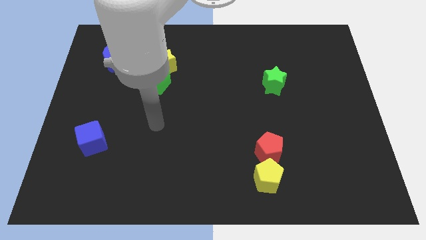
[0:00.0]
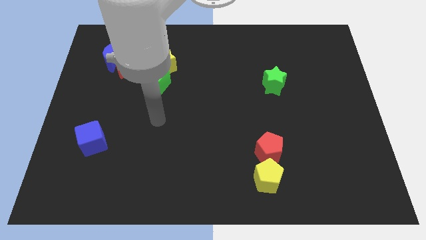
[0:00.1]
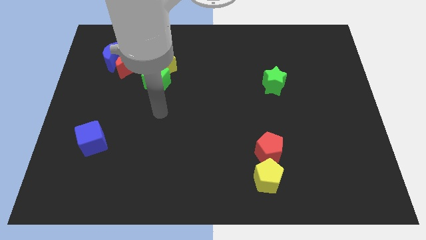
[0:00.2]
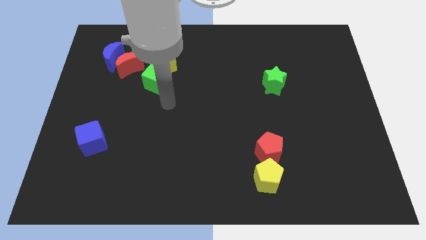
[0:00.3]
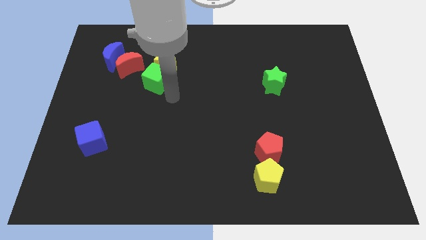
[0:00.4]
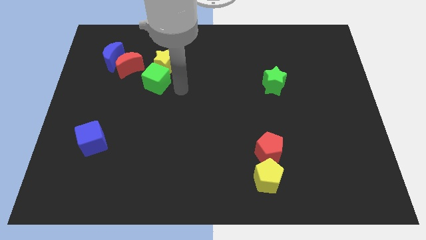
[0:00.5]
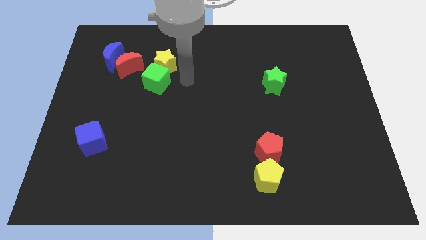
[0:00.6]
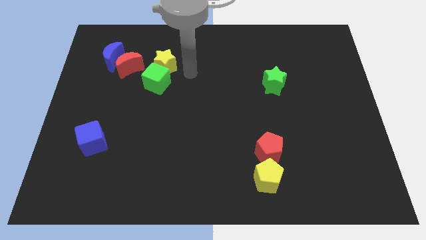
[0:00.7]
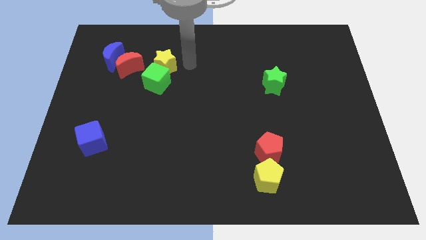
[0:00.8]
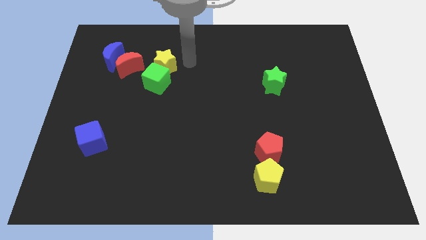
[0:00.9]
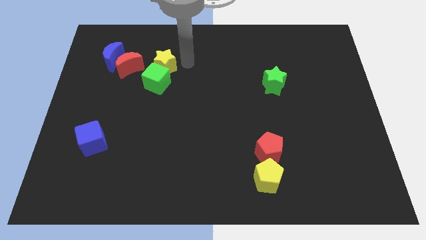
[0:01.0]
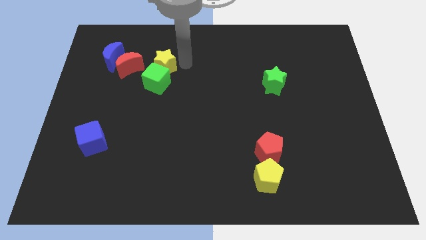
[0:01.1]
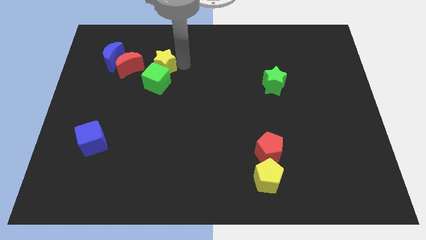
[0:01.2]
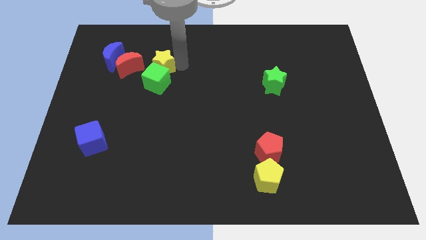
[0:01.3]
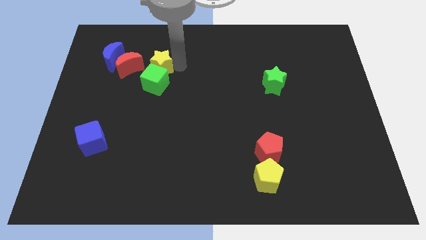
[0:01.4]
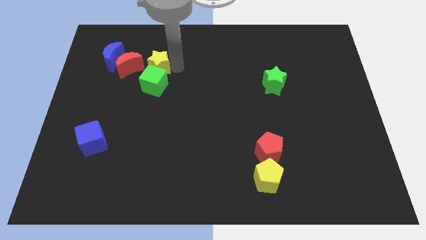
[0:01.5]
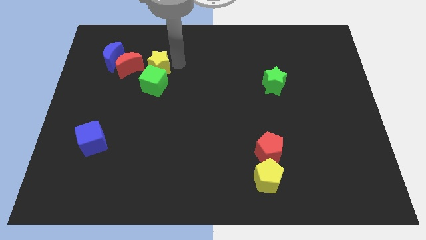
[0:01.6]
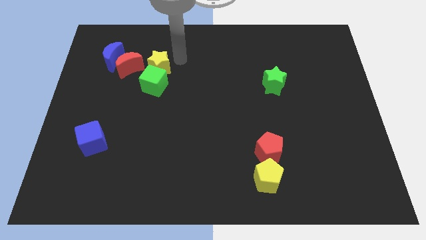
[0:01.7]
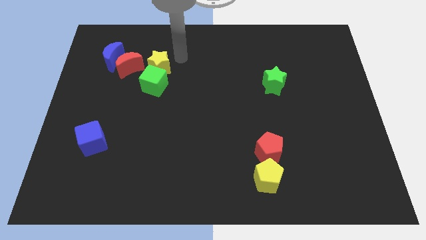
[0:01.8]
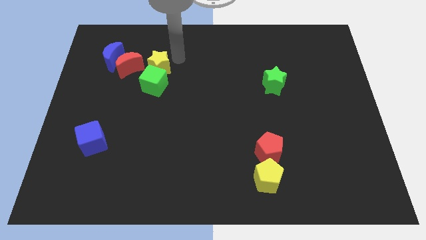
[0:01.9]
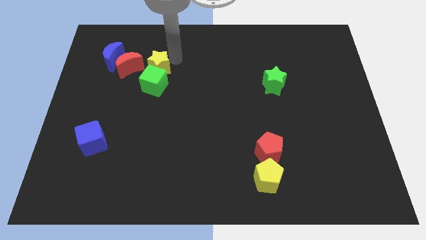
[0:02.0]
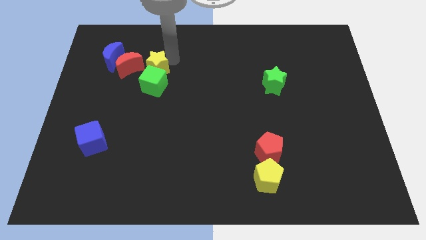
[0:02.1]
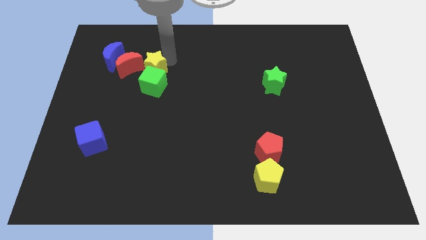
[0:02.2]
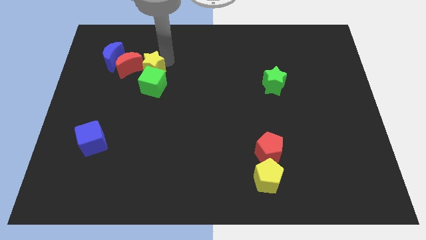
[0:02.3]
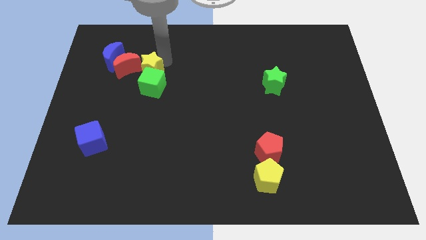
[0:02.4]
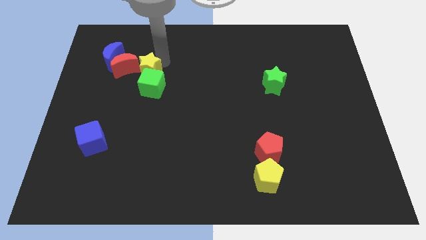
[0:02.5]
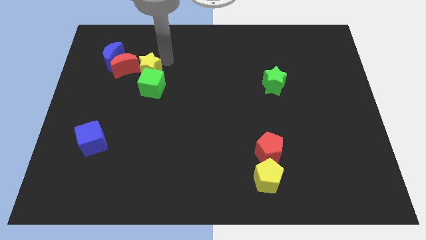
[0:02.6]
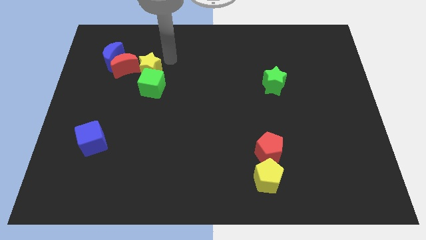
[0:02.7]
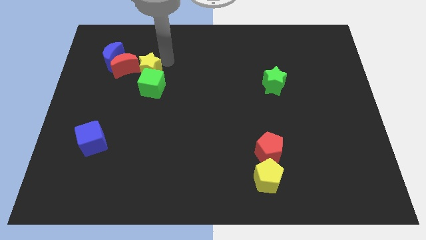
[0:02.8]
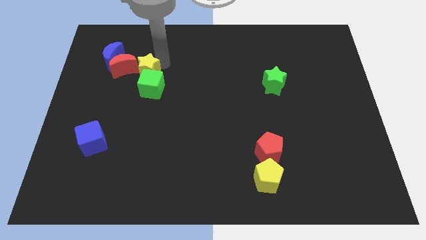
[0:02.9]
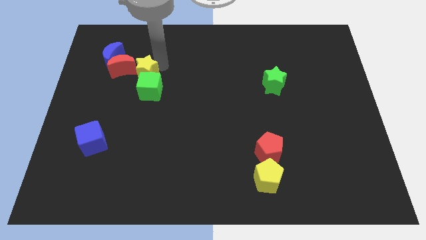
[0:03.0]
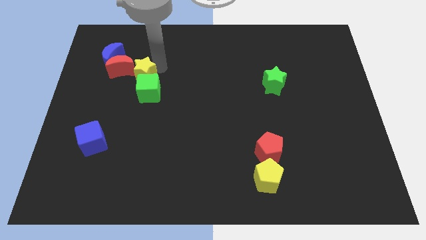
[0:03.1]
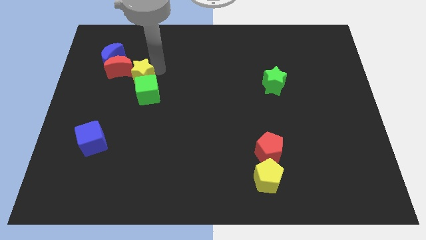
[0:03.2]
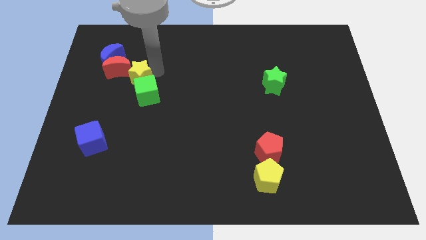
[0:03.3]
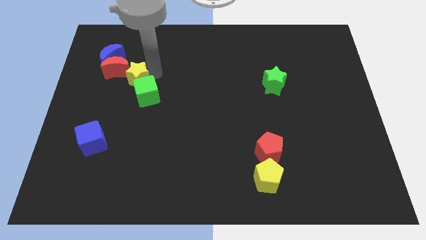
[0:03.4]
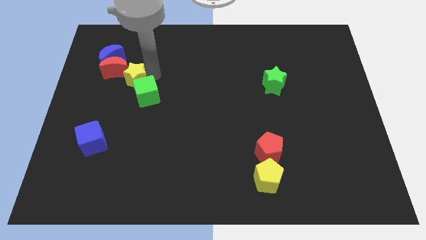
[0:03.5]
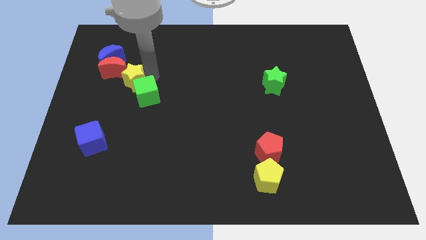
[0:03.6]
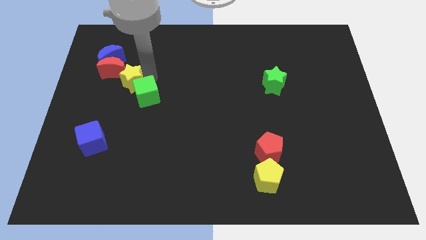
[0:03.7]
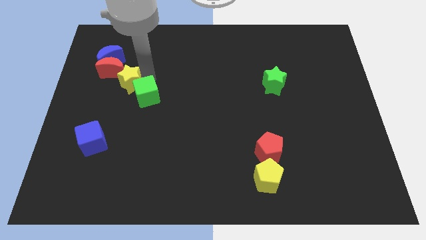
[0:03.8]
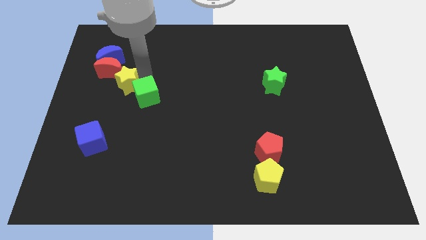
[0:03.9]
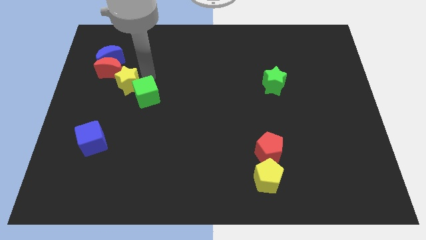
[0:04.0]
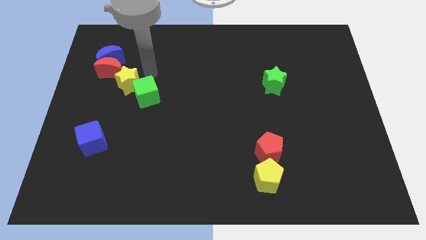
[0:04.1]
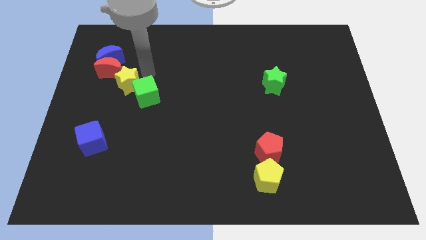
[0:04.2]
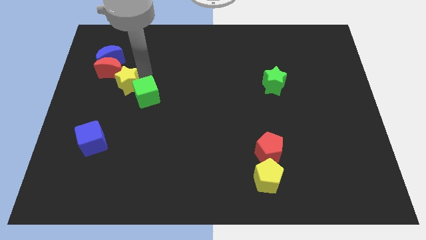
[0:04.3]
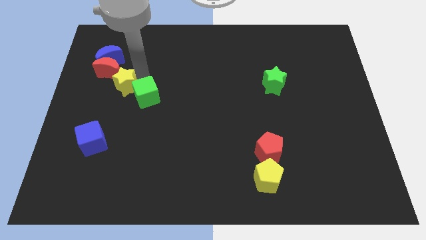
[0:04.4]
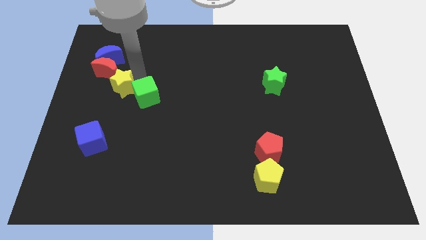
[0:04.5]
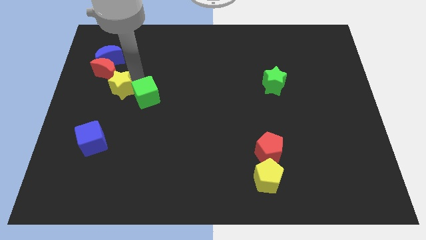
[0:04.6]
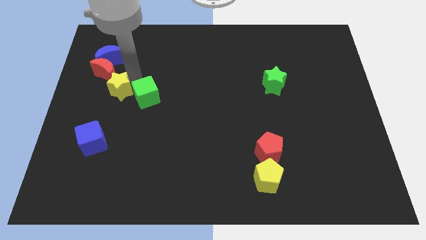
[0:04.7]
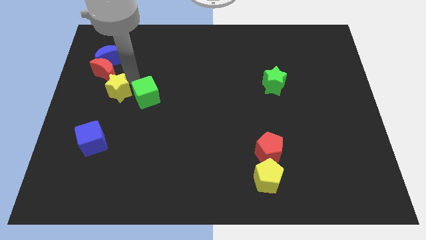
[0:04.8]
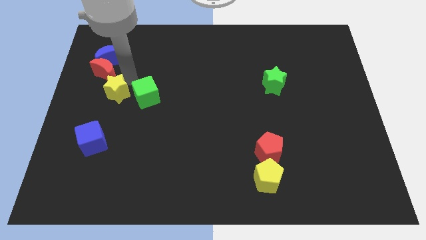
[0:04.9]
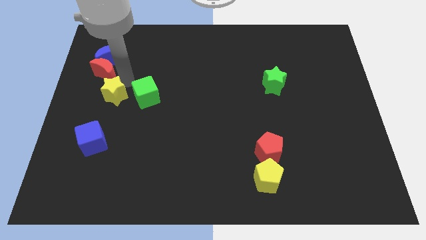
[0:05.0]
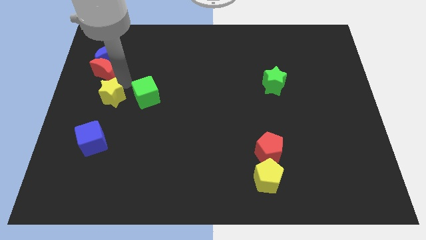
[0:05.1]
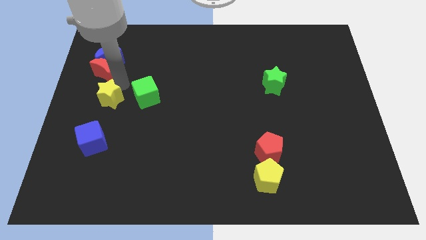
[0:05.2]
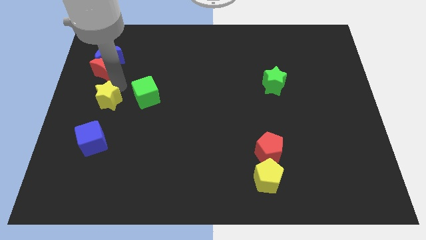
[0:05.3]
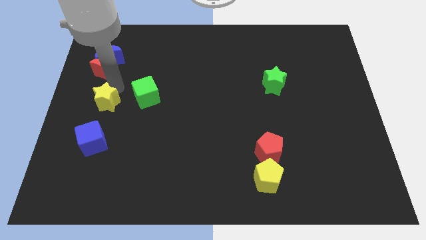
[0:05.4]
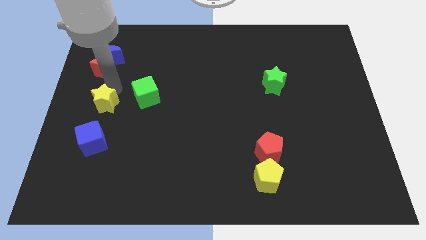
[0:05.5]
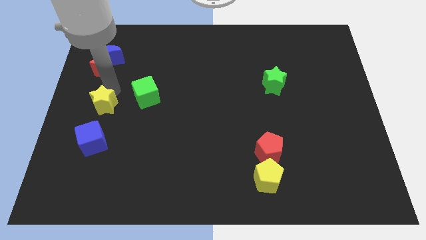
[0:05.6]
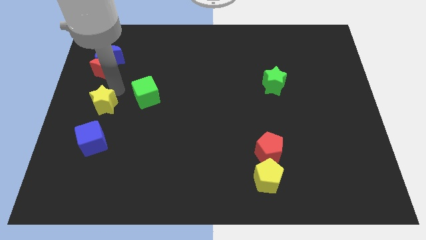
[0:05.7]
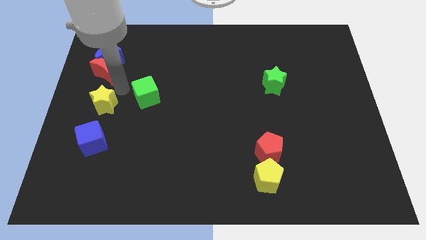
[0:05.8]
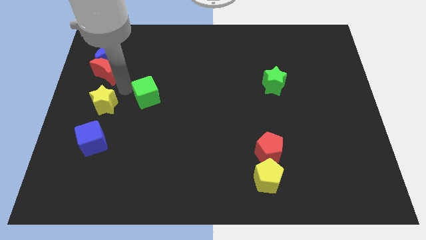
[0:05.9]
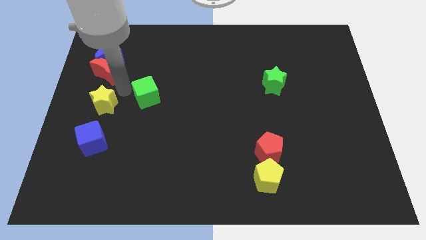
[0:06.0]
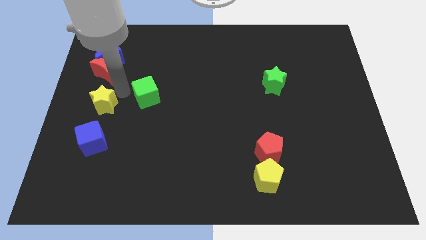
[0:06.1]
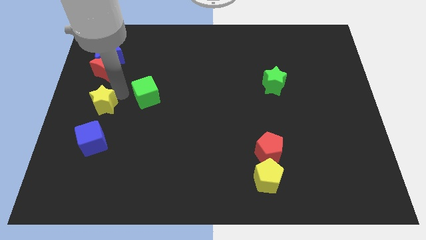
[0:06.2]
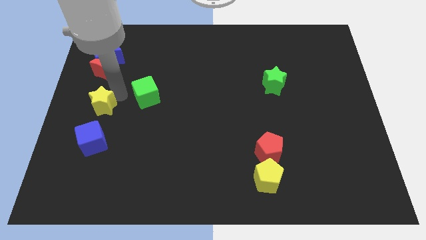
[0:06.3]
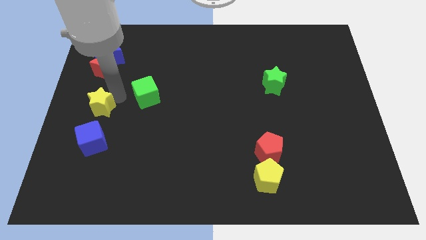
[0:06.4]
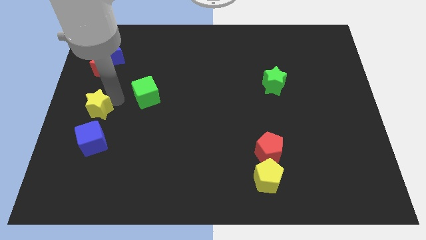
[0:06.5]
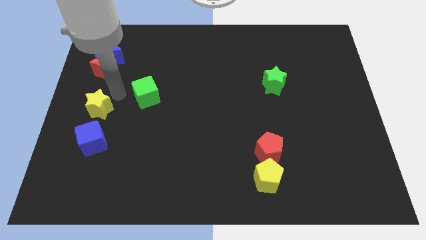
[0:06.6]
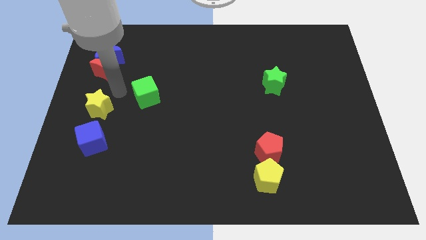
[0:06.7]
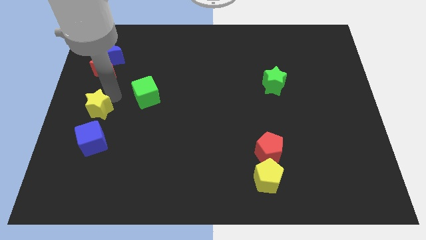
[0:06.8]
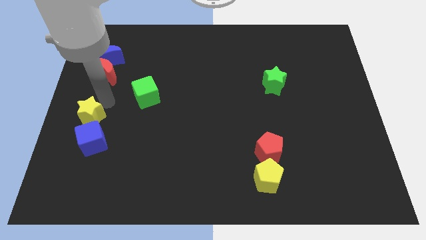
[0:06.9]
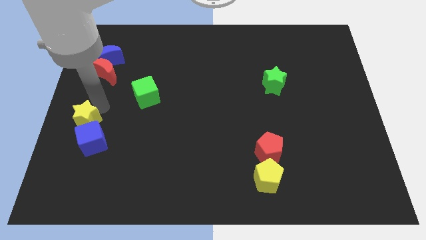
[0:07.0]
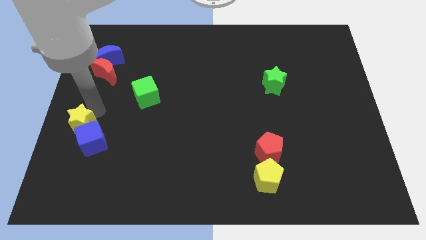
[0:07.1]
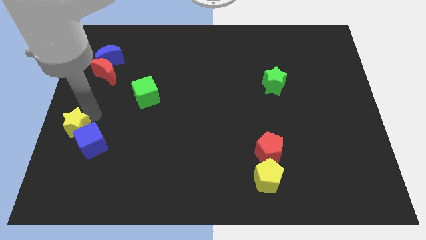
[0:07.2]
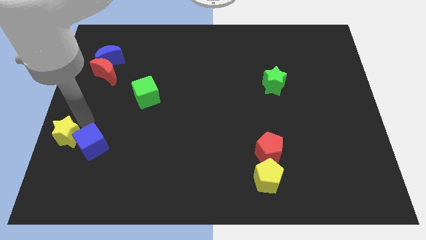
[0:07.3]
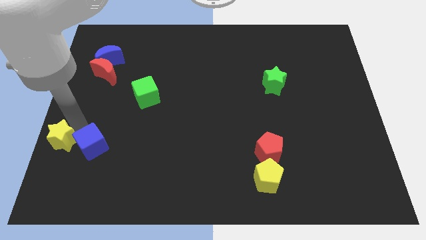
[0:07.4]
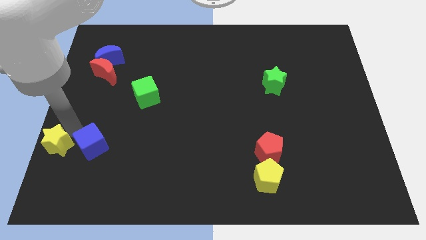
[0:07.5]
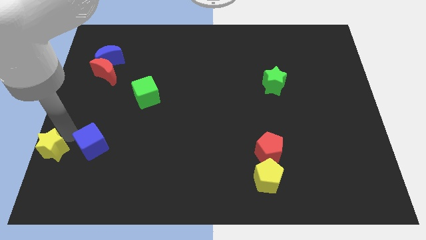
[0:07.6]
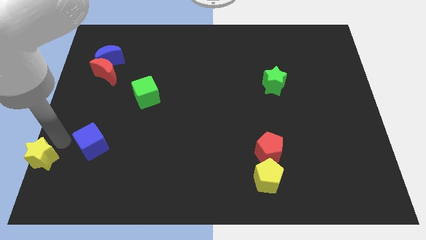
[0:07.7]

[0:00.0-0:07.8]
slide the yellow star to the bottom left
